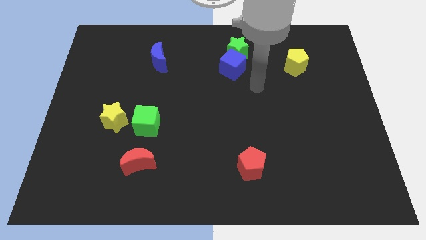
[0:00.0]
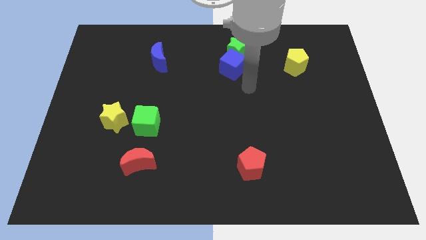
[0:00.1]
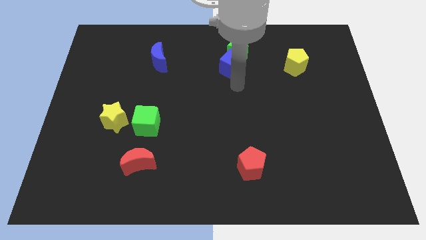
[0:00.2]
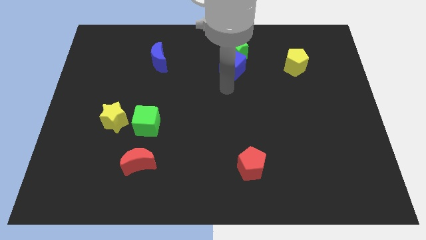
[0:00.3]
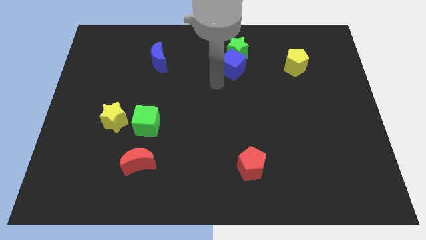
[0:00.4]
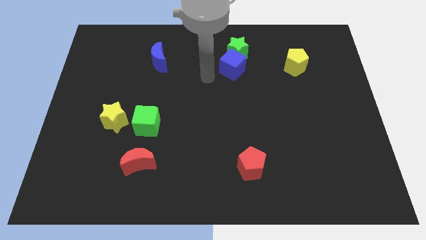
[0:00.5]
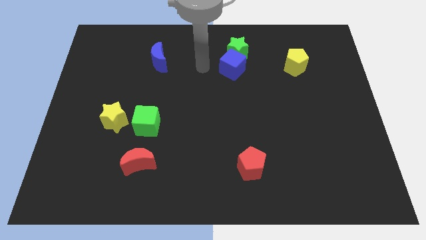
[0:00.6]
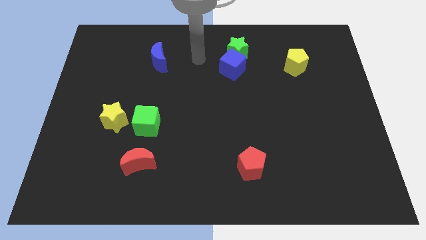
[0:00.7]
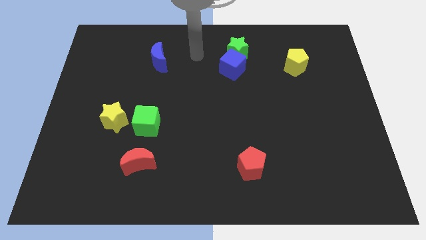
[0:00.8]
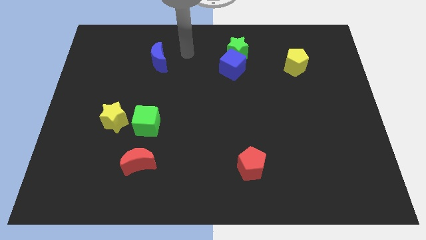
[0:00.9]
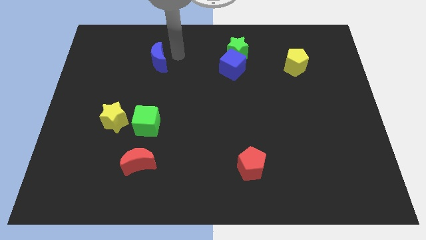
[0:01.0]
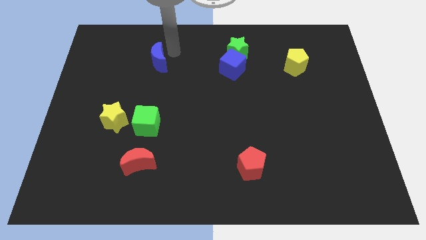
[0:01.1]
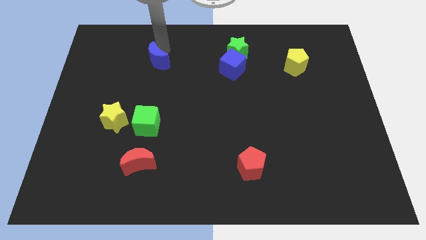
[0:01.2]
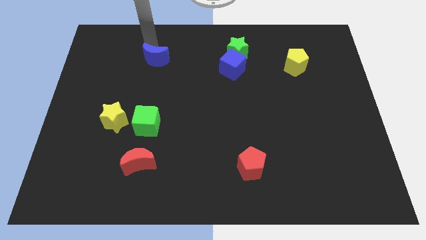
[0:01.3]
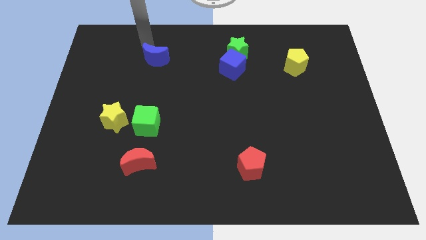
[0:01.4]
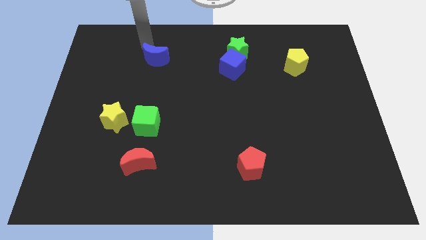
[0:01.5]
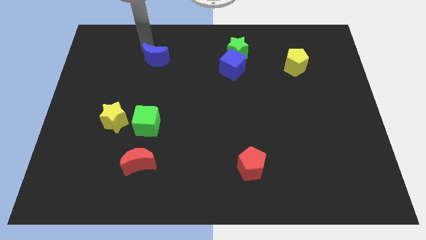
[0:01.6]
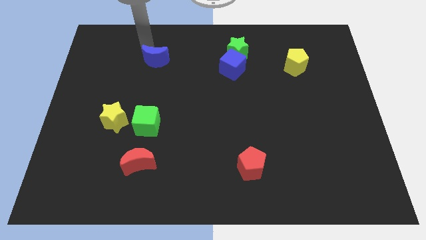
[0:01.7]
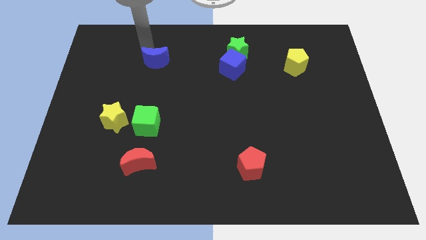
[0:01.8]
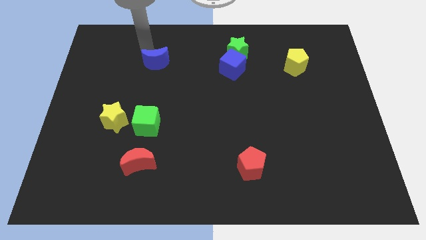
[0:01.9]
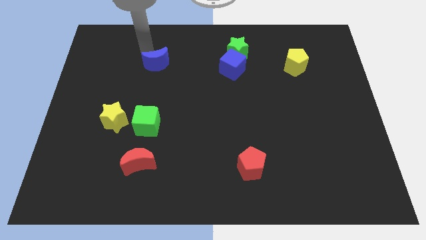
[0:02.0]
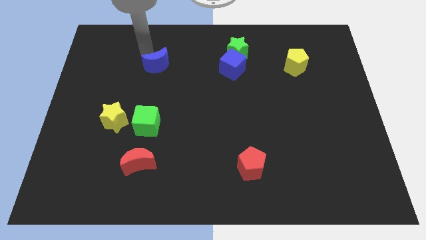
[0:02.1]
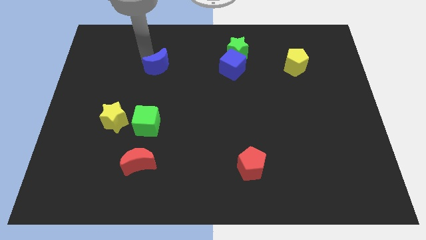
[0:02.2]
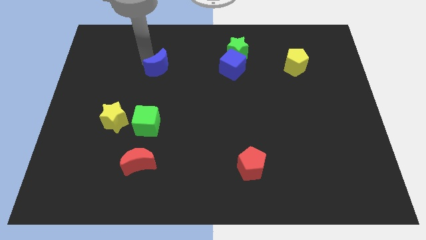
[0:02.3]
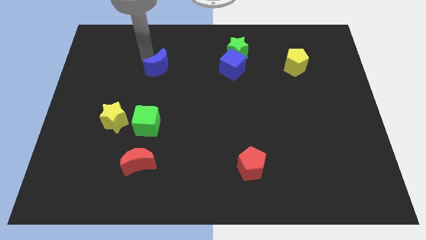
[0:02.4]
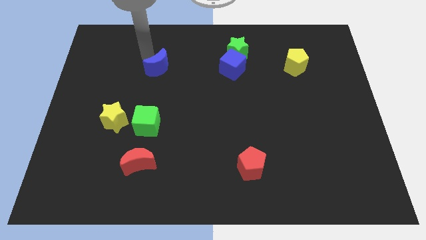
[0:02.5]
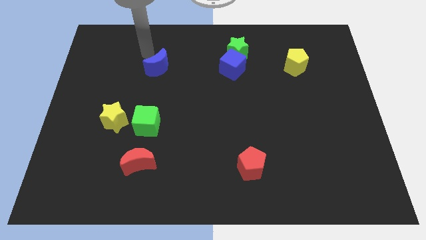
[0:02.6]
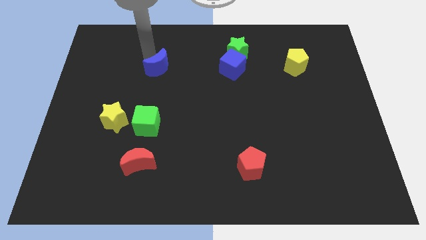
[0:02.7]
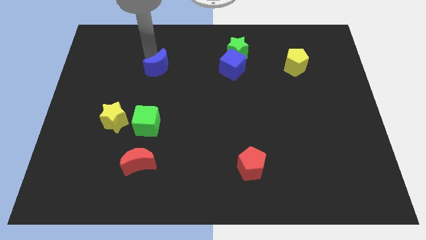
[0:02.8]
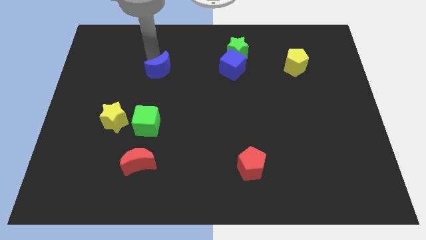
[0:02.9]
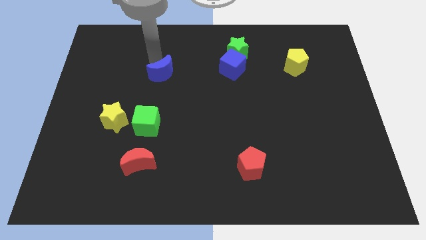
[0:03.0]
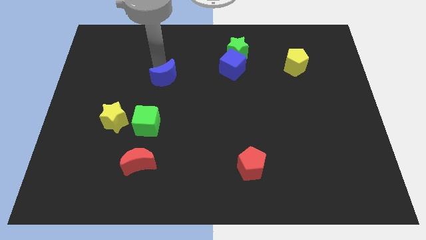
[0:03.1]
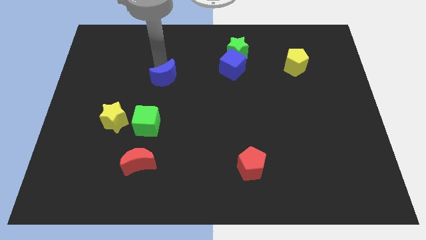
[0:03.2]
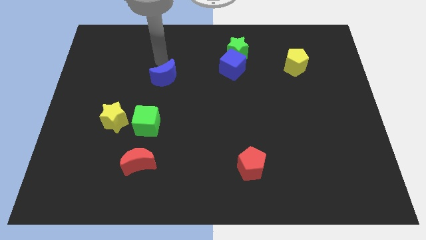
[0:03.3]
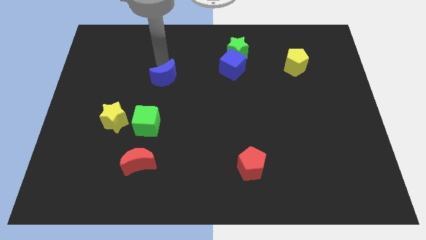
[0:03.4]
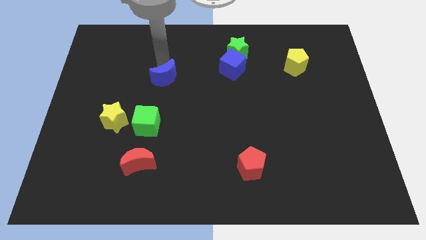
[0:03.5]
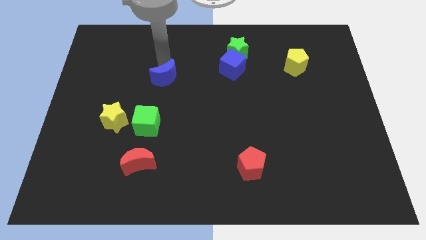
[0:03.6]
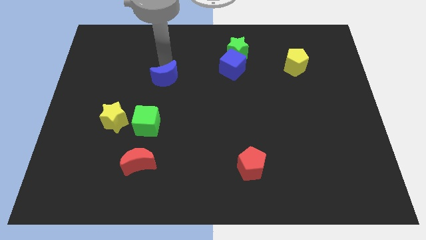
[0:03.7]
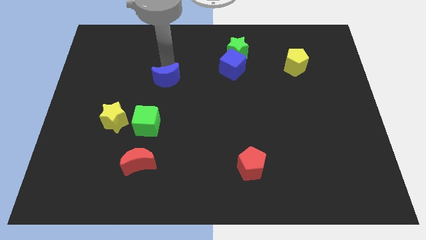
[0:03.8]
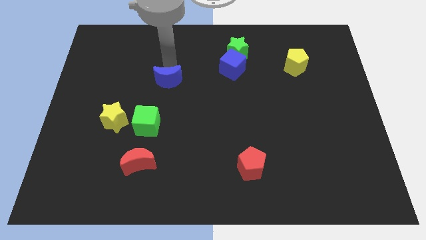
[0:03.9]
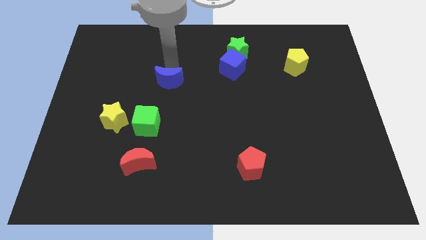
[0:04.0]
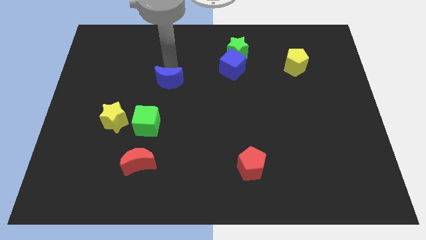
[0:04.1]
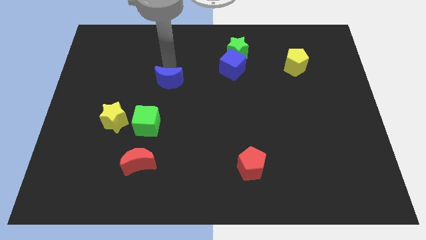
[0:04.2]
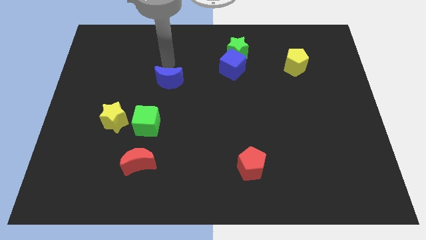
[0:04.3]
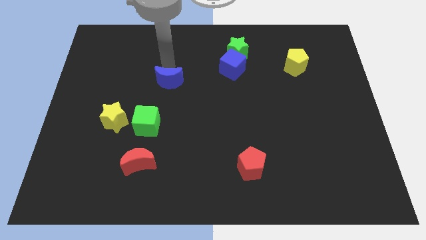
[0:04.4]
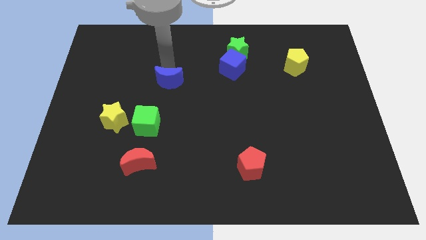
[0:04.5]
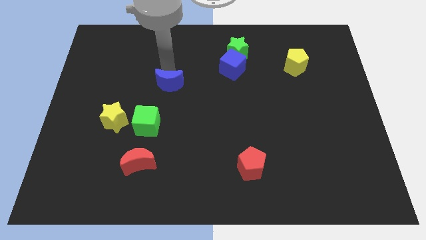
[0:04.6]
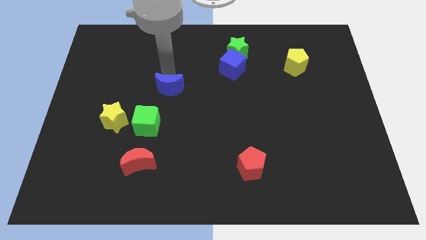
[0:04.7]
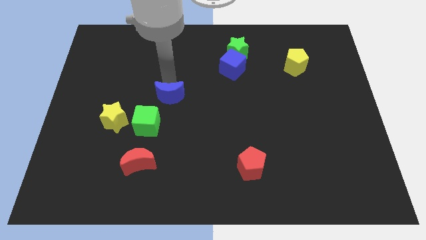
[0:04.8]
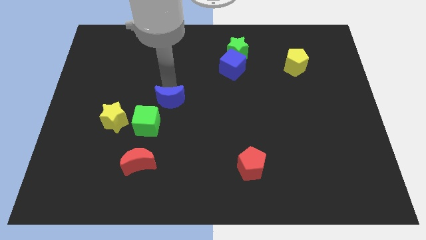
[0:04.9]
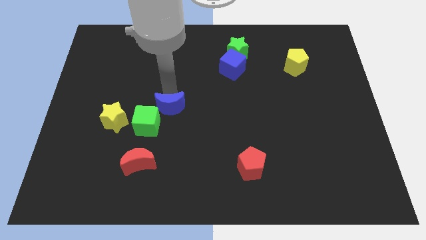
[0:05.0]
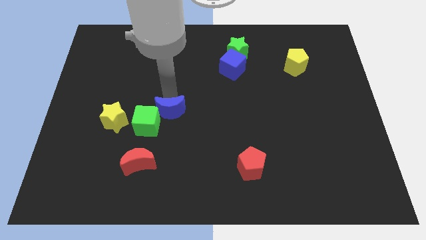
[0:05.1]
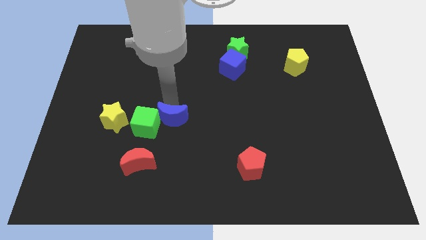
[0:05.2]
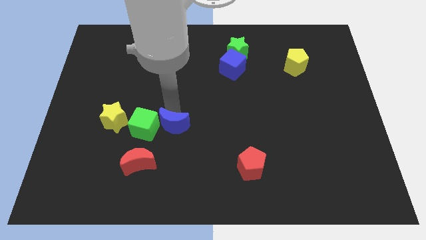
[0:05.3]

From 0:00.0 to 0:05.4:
move the blue moon diagonally down and to the right of the green cube
